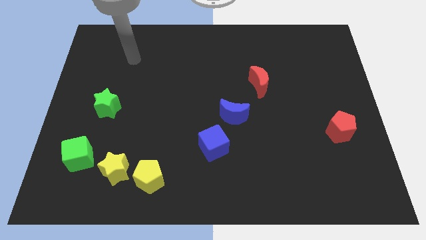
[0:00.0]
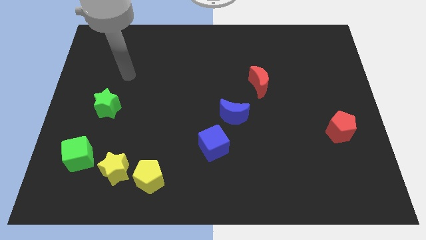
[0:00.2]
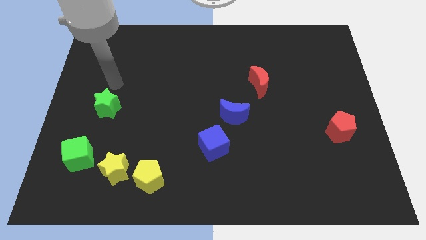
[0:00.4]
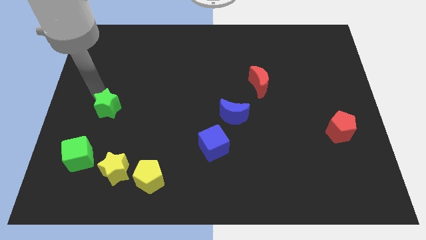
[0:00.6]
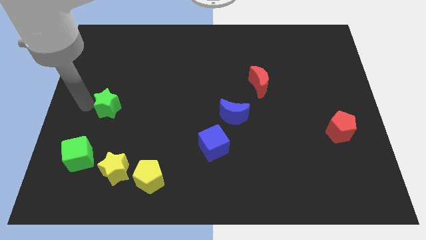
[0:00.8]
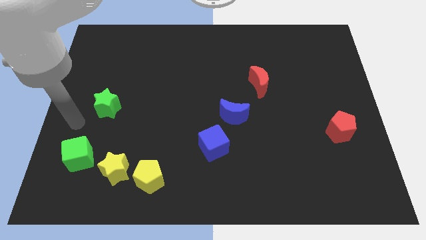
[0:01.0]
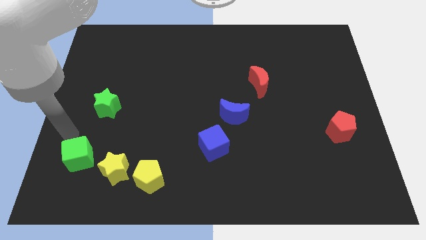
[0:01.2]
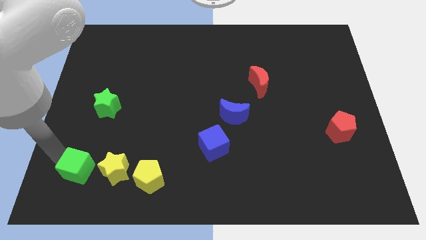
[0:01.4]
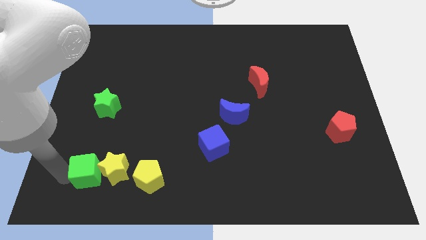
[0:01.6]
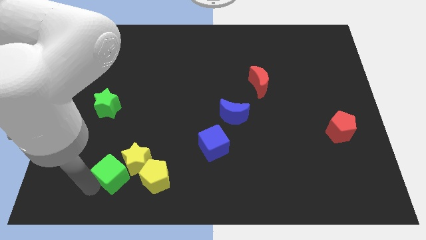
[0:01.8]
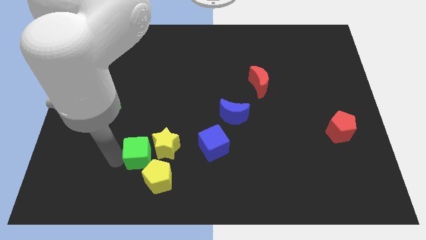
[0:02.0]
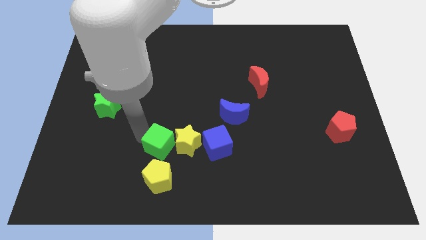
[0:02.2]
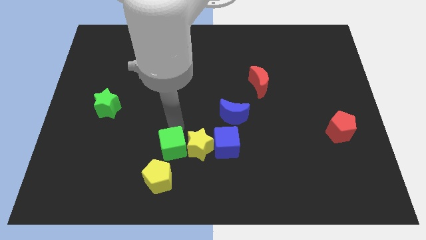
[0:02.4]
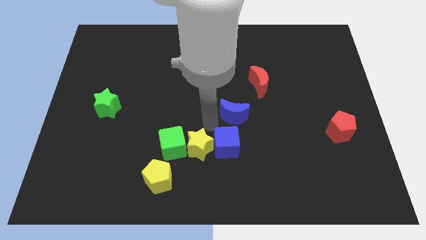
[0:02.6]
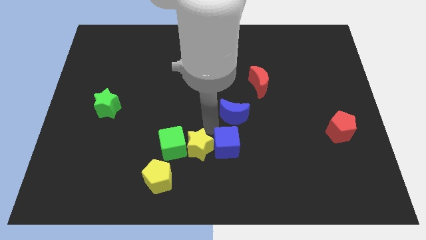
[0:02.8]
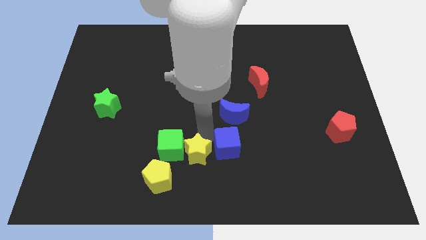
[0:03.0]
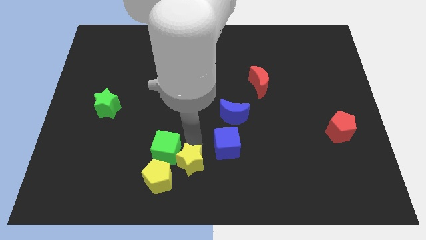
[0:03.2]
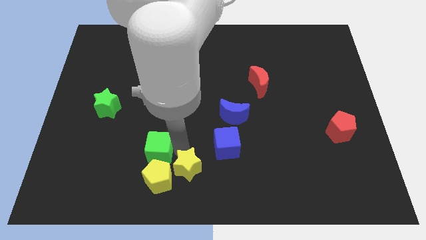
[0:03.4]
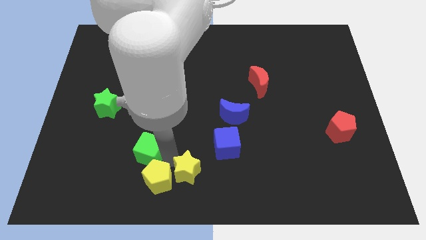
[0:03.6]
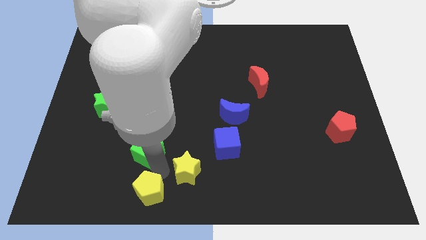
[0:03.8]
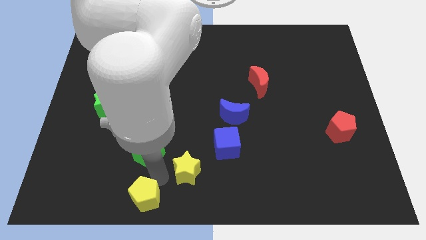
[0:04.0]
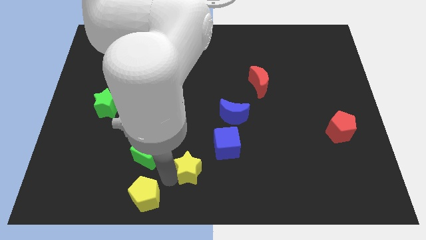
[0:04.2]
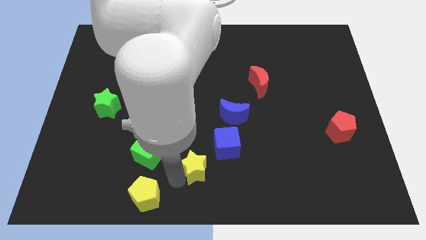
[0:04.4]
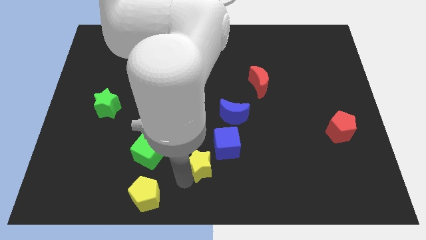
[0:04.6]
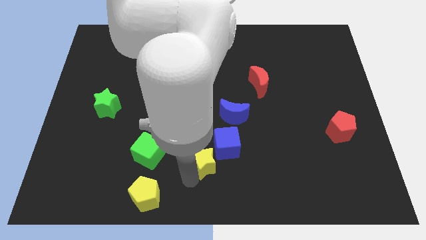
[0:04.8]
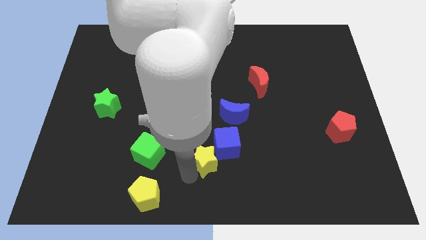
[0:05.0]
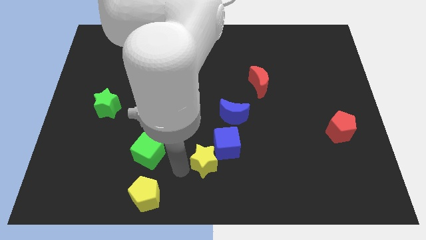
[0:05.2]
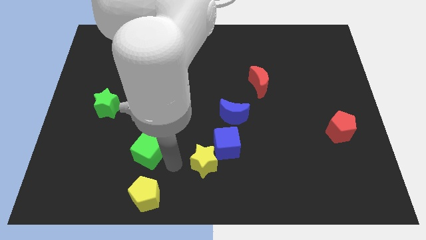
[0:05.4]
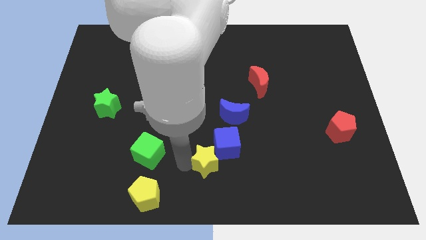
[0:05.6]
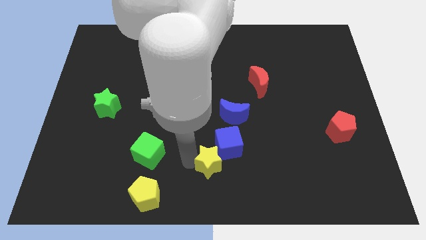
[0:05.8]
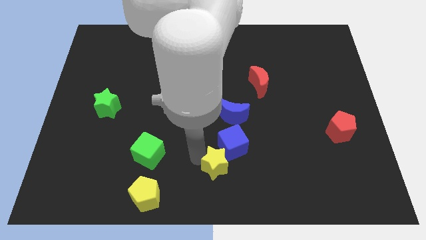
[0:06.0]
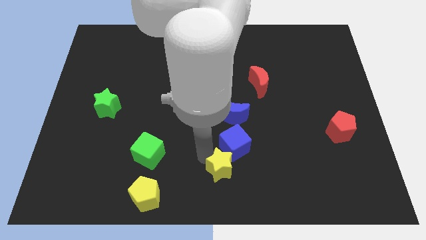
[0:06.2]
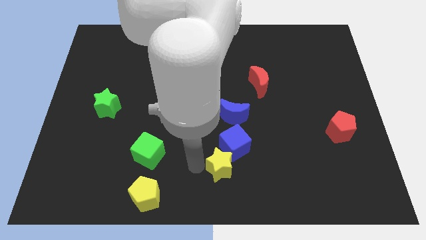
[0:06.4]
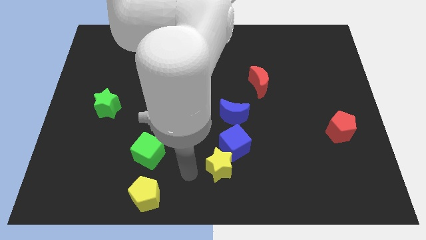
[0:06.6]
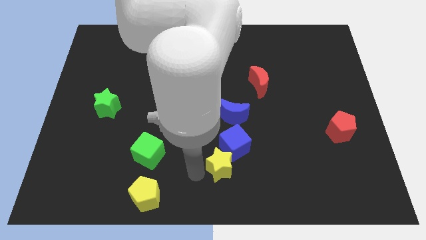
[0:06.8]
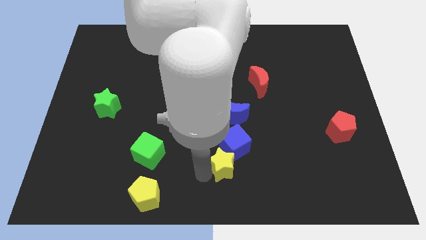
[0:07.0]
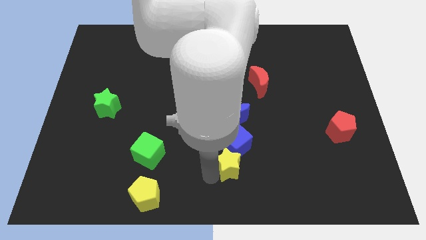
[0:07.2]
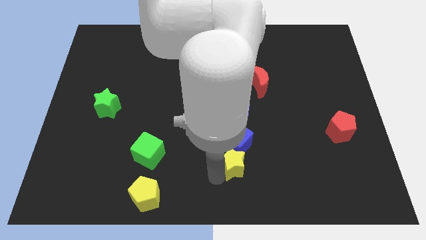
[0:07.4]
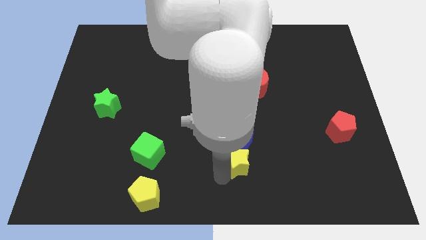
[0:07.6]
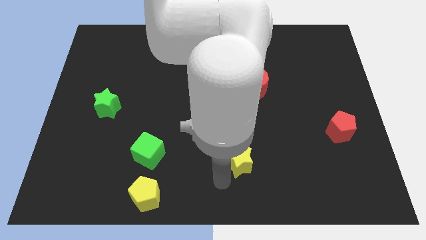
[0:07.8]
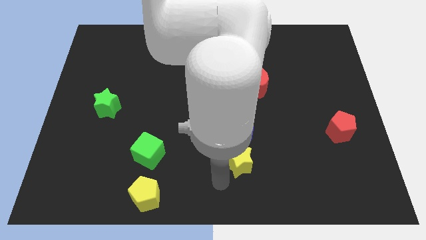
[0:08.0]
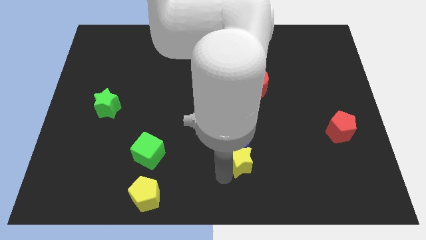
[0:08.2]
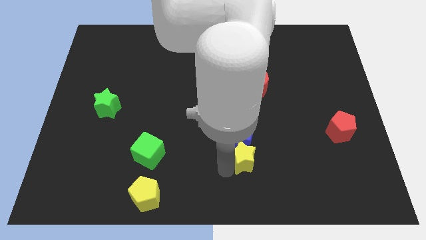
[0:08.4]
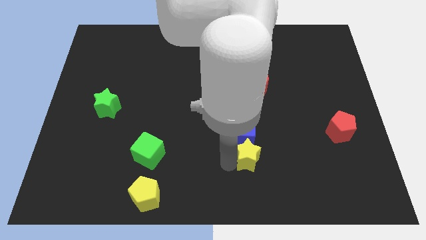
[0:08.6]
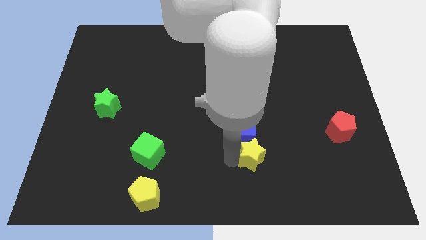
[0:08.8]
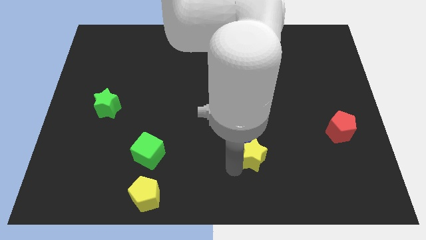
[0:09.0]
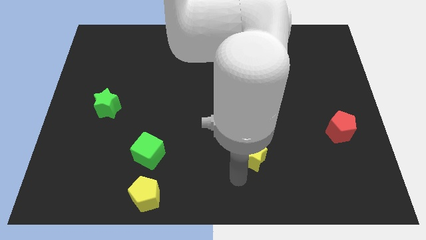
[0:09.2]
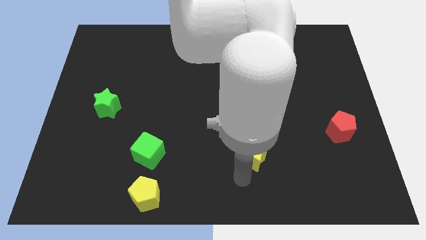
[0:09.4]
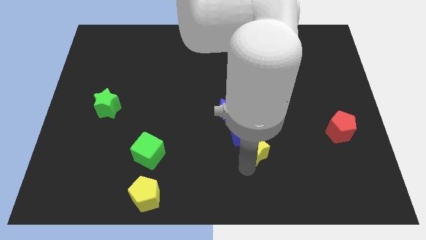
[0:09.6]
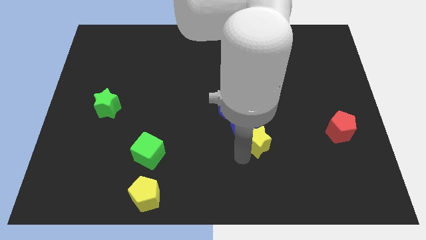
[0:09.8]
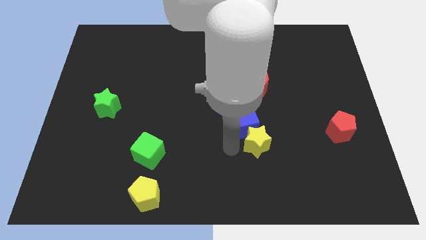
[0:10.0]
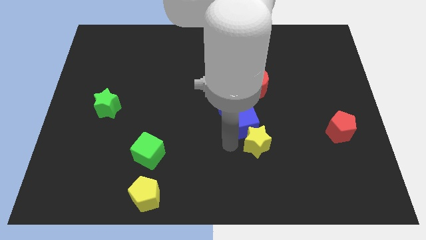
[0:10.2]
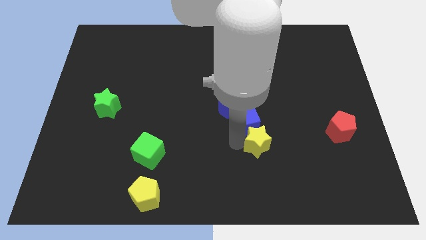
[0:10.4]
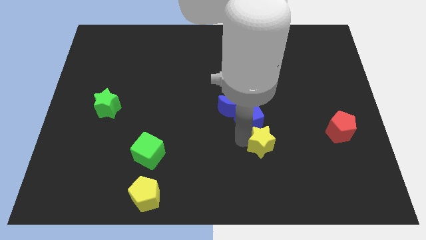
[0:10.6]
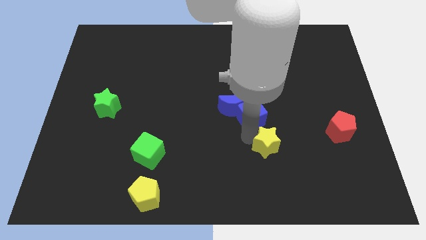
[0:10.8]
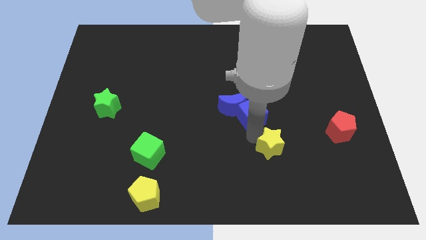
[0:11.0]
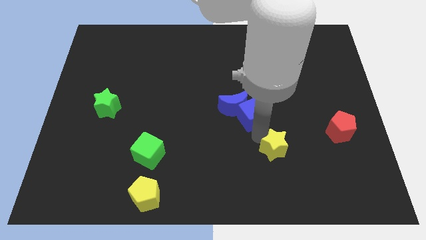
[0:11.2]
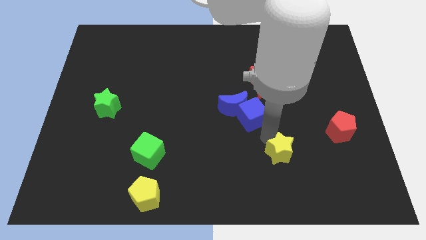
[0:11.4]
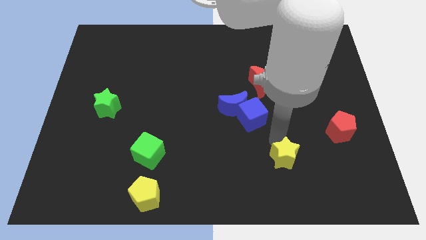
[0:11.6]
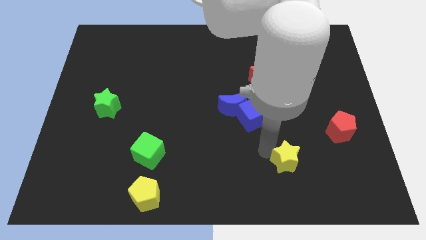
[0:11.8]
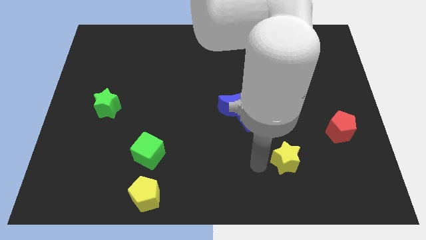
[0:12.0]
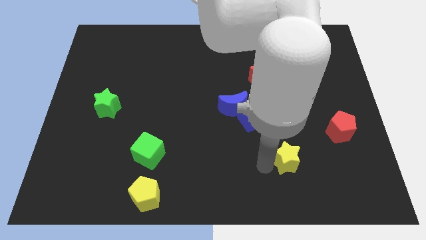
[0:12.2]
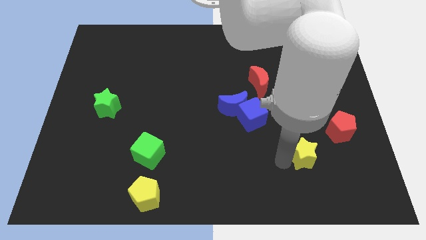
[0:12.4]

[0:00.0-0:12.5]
slide the yellow star to the bottom left of the red pentagon

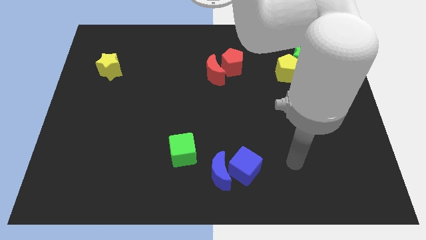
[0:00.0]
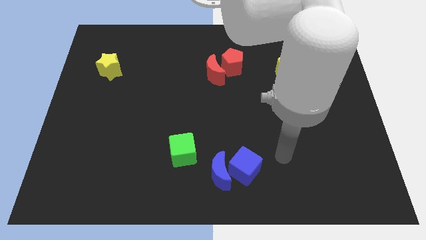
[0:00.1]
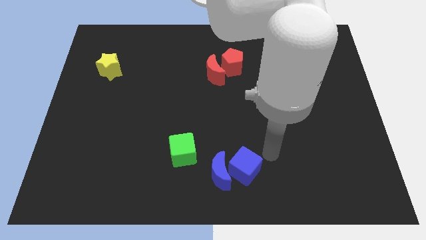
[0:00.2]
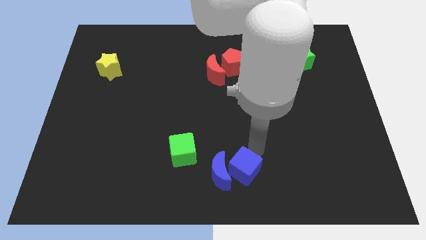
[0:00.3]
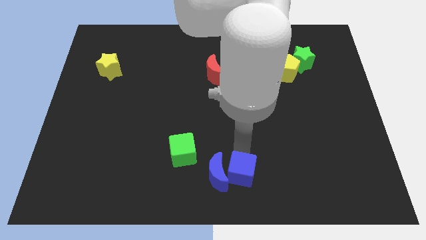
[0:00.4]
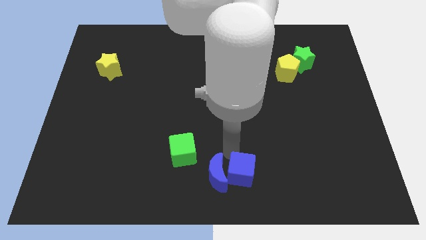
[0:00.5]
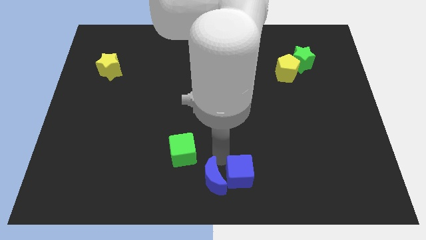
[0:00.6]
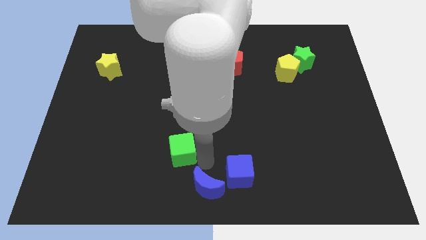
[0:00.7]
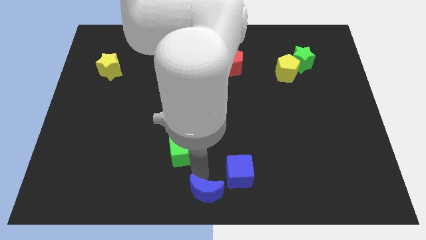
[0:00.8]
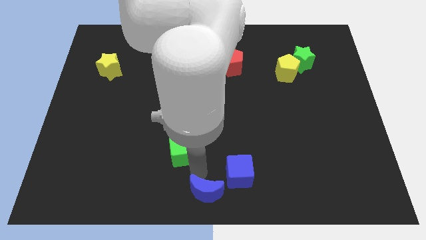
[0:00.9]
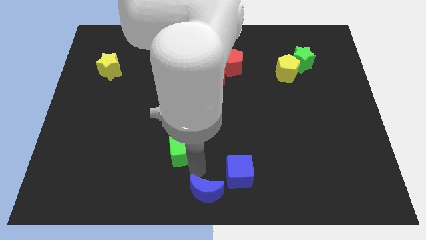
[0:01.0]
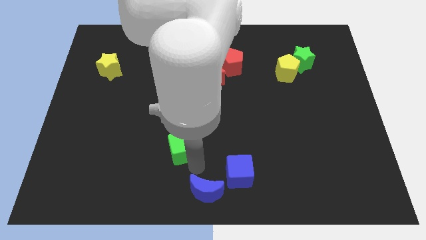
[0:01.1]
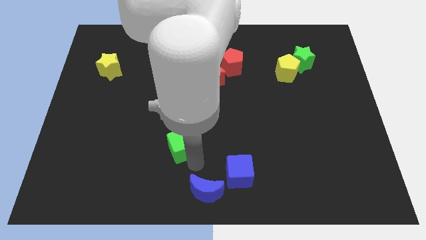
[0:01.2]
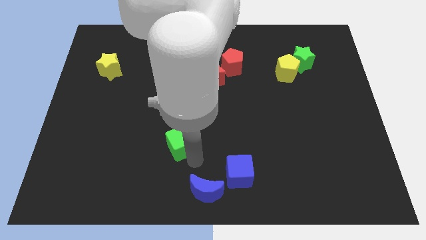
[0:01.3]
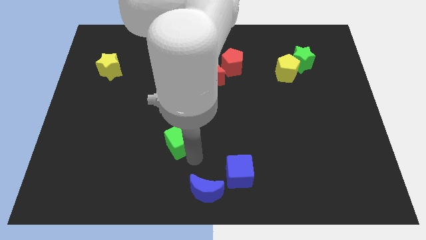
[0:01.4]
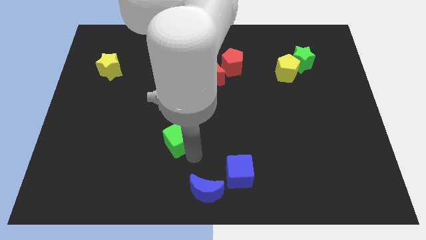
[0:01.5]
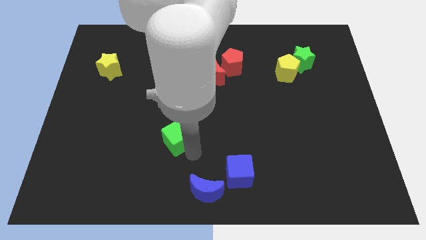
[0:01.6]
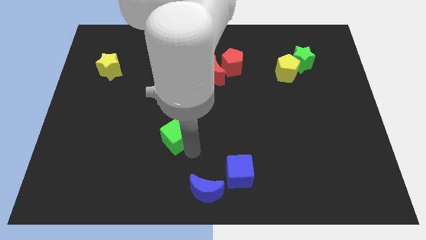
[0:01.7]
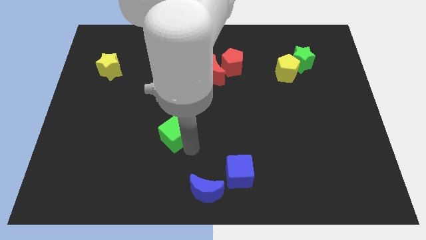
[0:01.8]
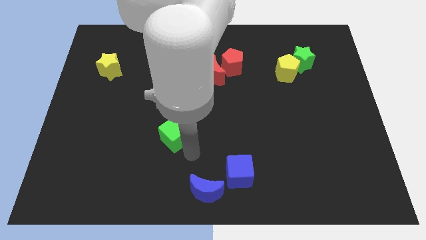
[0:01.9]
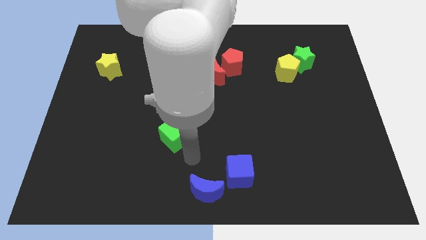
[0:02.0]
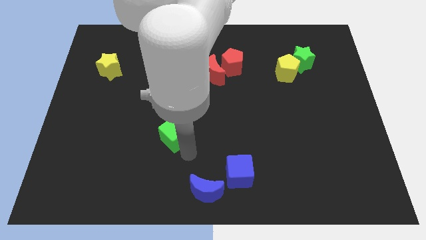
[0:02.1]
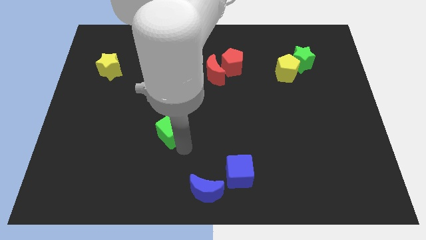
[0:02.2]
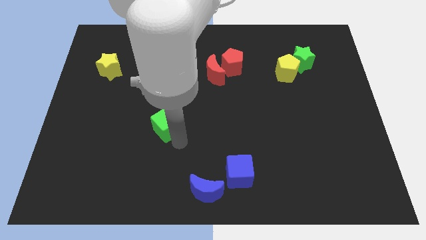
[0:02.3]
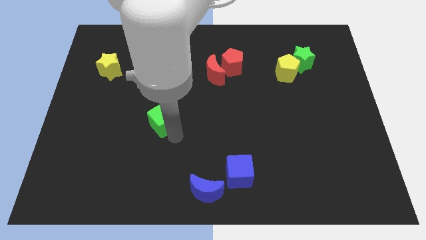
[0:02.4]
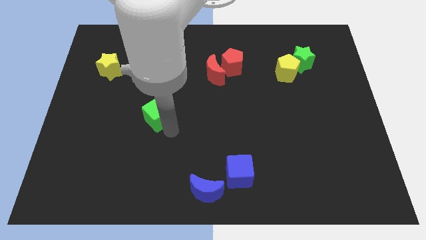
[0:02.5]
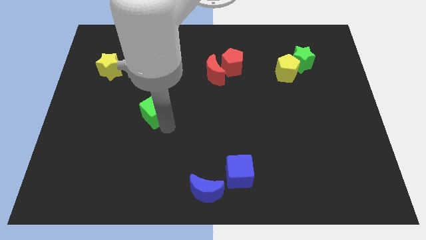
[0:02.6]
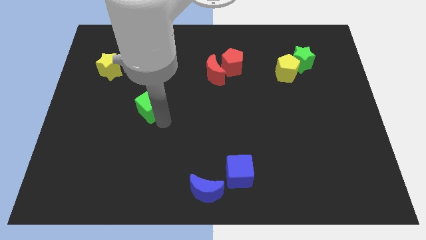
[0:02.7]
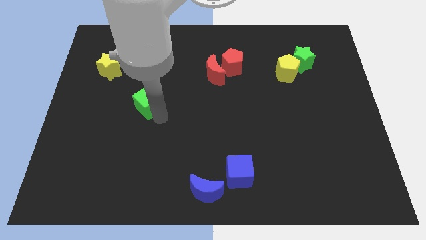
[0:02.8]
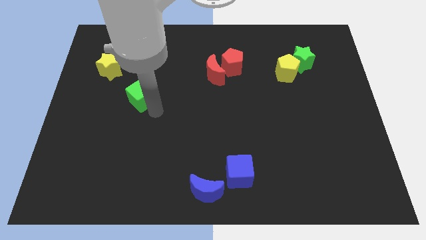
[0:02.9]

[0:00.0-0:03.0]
push the green cube diagonally down and to the right of the yellow star
